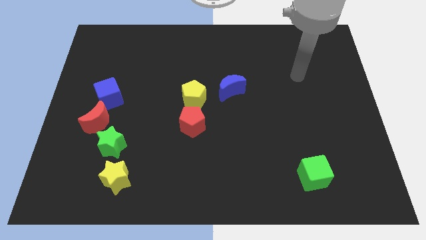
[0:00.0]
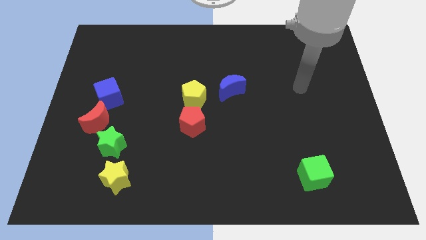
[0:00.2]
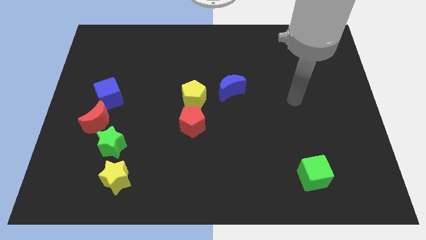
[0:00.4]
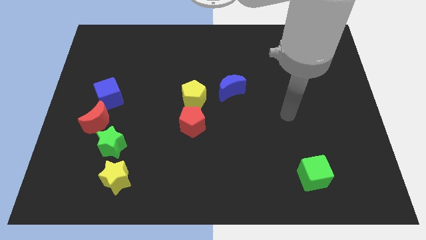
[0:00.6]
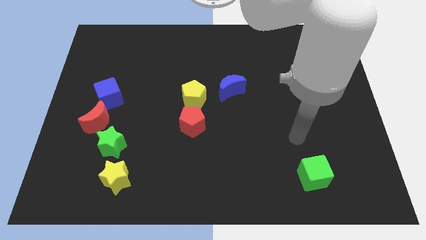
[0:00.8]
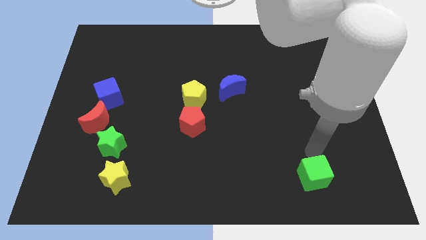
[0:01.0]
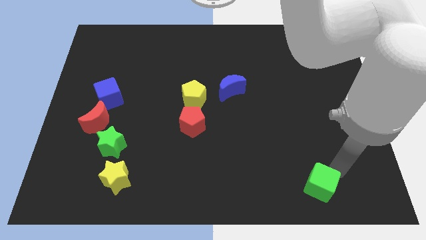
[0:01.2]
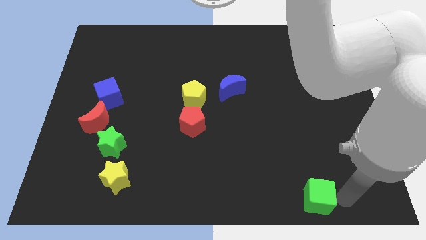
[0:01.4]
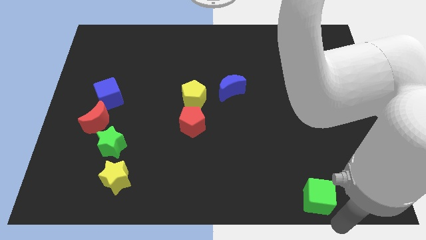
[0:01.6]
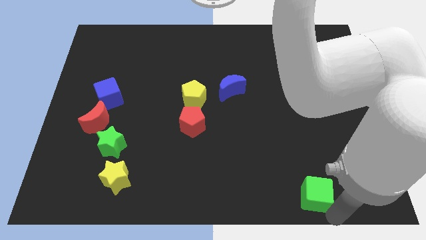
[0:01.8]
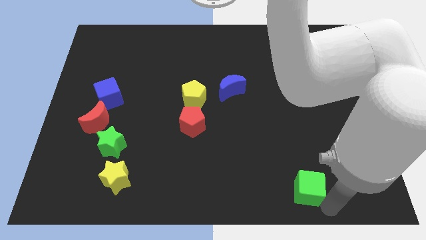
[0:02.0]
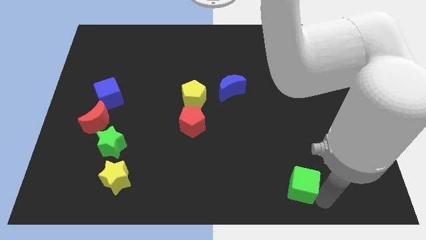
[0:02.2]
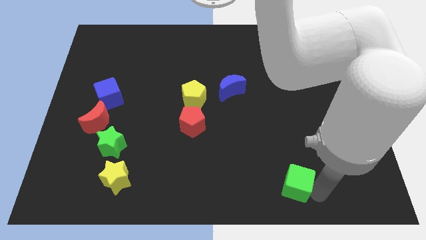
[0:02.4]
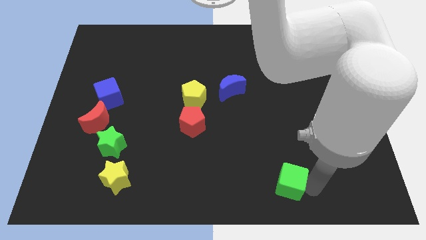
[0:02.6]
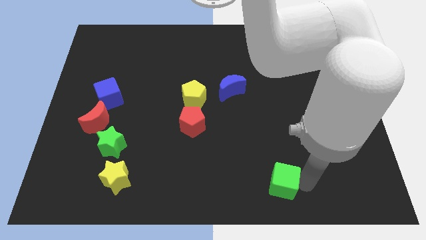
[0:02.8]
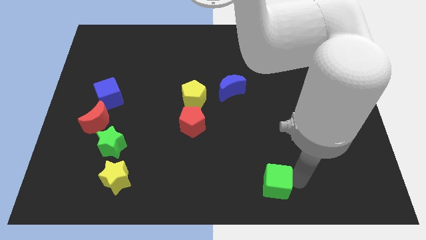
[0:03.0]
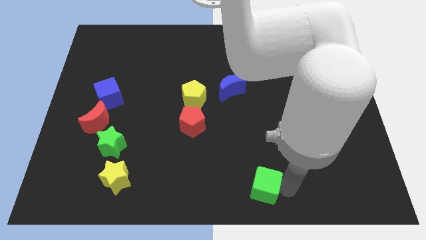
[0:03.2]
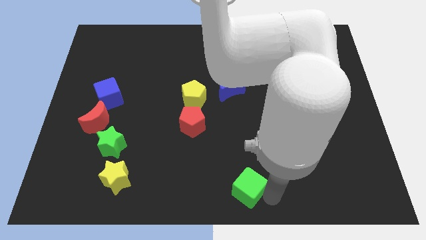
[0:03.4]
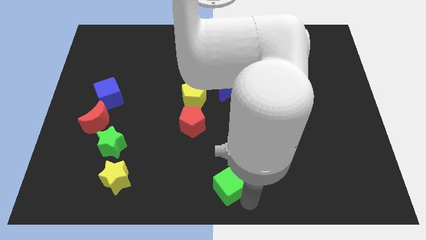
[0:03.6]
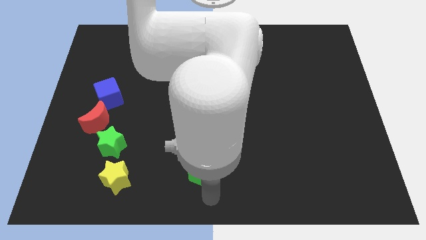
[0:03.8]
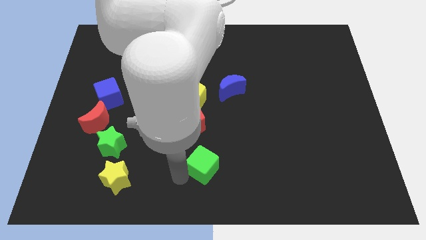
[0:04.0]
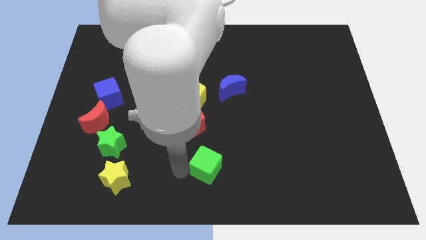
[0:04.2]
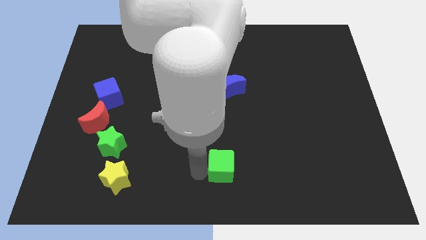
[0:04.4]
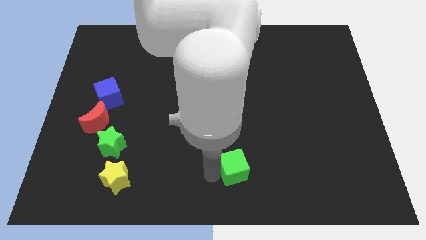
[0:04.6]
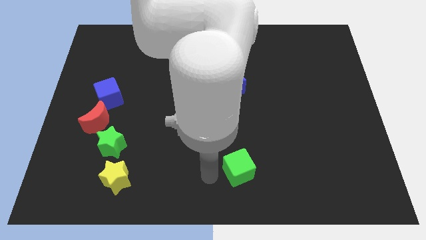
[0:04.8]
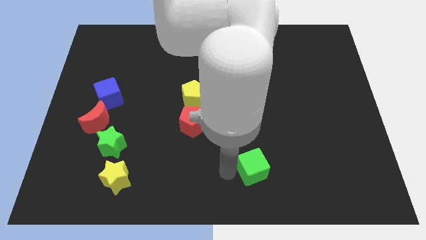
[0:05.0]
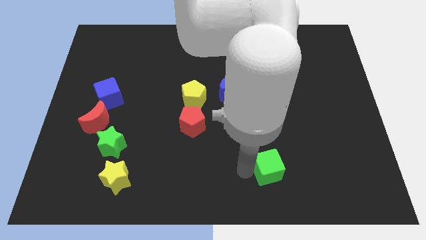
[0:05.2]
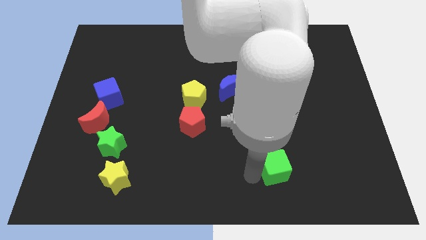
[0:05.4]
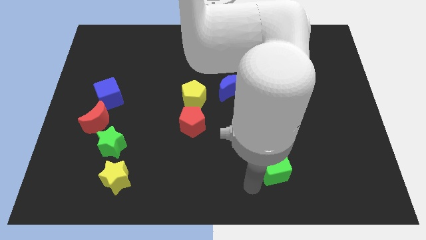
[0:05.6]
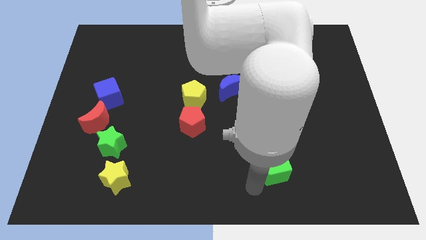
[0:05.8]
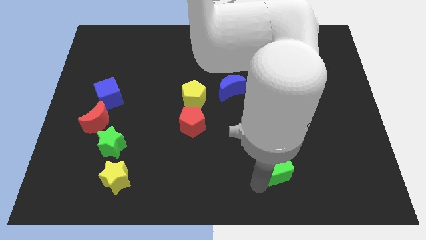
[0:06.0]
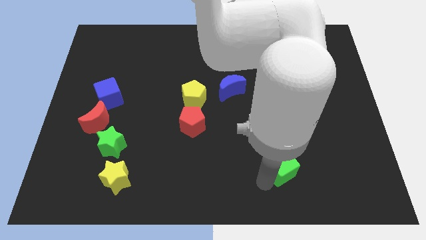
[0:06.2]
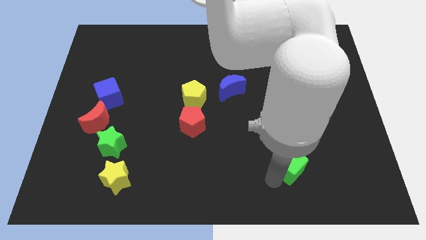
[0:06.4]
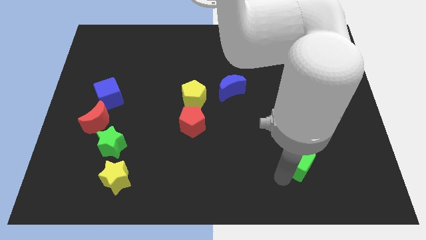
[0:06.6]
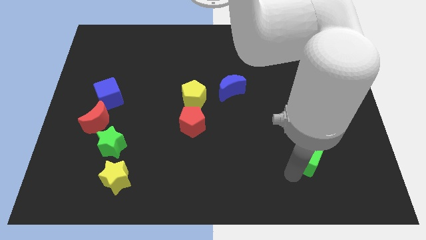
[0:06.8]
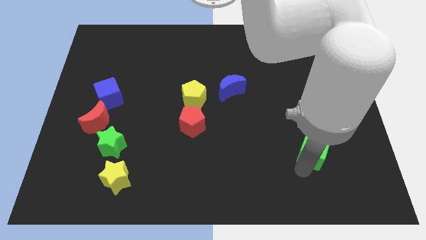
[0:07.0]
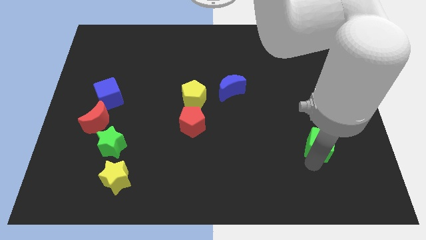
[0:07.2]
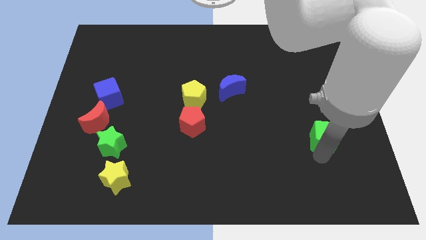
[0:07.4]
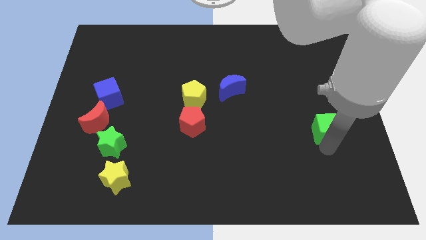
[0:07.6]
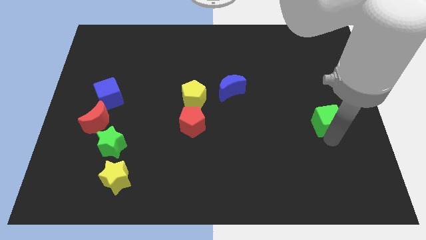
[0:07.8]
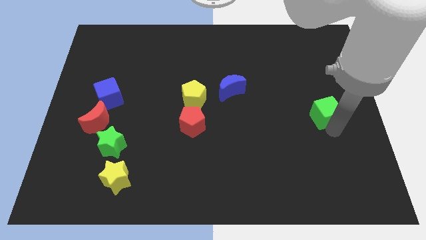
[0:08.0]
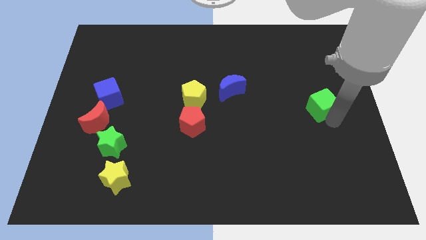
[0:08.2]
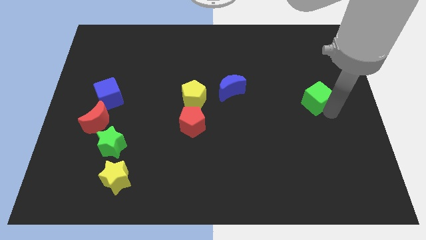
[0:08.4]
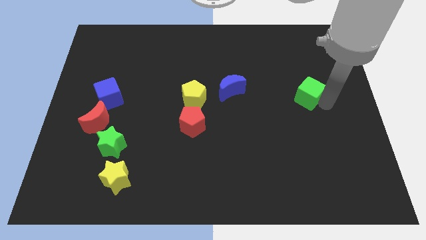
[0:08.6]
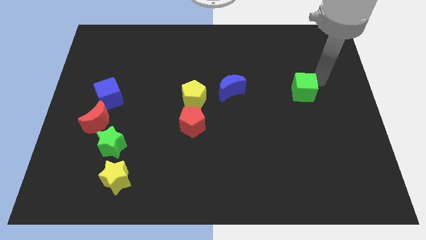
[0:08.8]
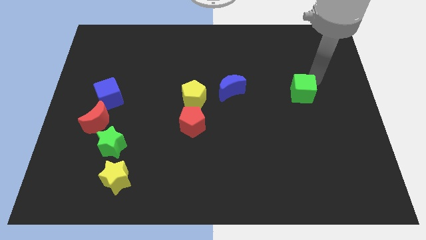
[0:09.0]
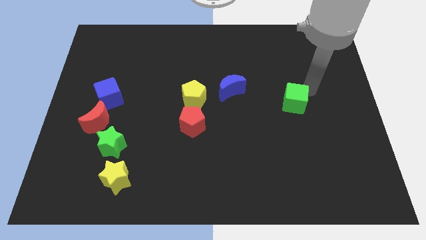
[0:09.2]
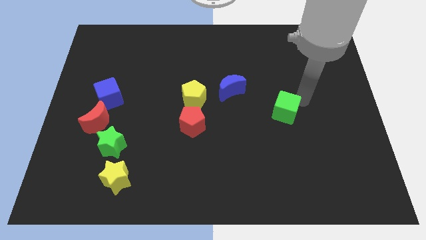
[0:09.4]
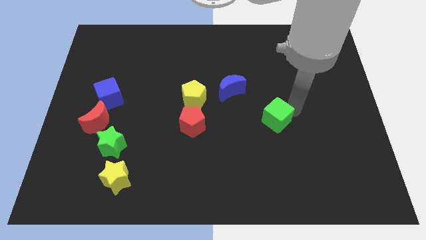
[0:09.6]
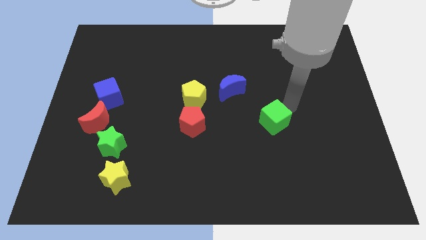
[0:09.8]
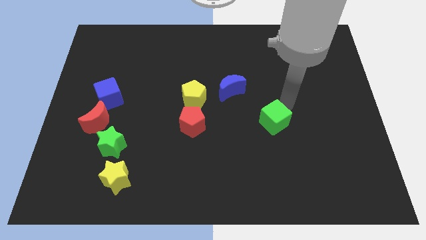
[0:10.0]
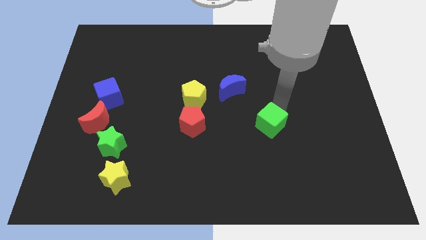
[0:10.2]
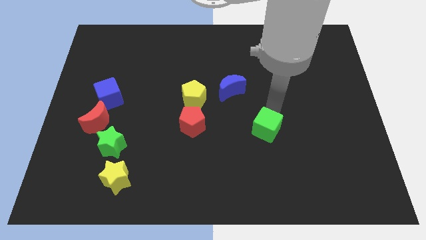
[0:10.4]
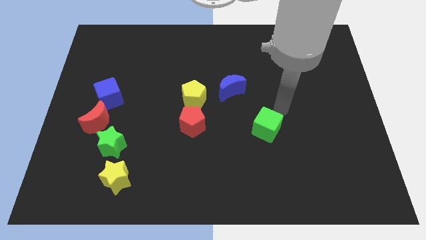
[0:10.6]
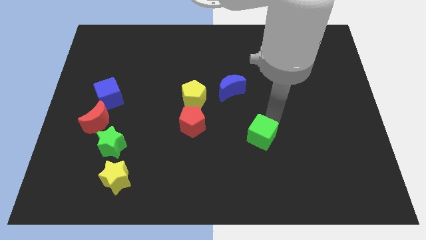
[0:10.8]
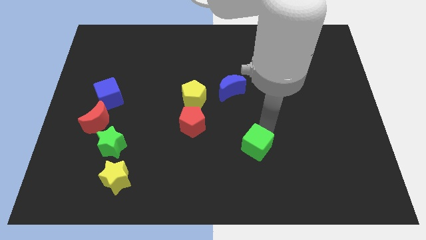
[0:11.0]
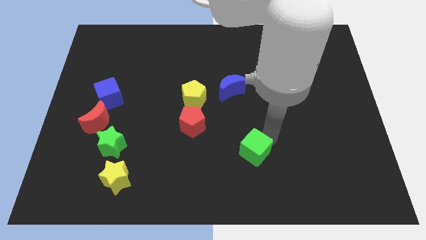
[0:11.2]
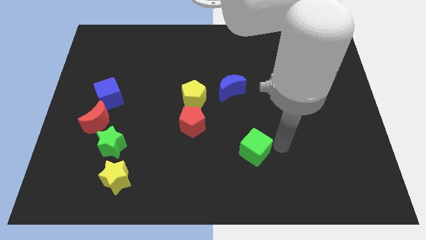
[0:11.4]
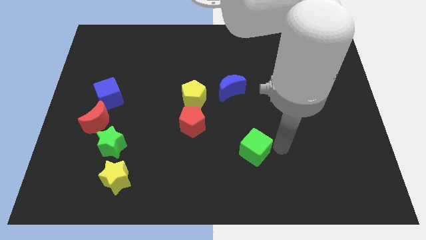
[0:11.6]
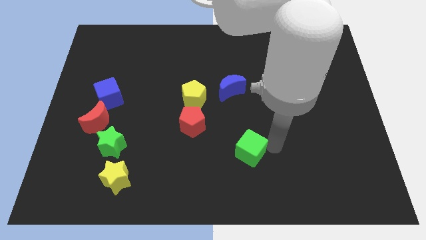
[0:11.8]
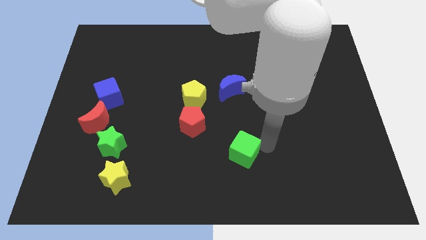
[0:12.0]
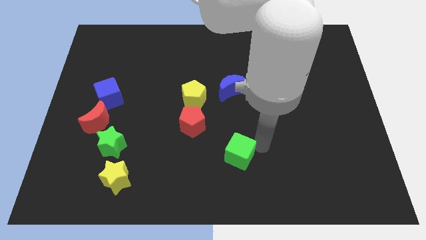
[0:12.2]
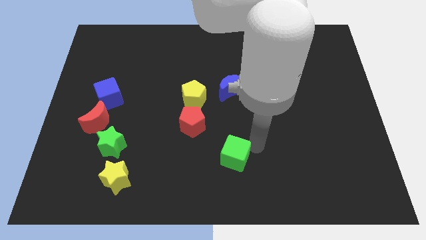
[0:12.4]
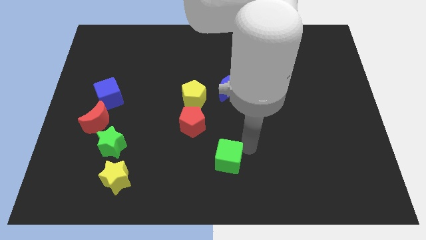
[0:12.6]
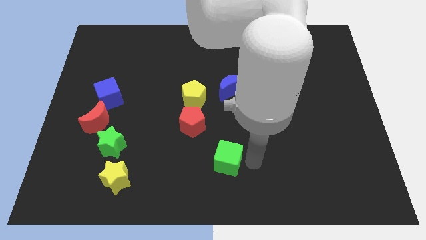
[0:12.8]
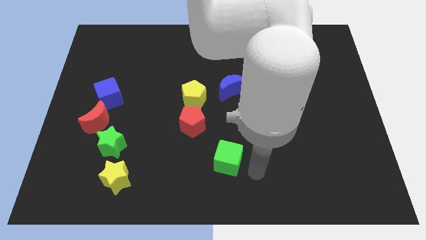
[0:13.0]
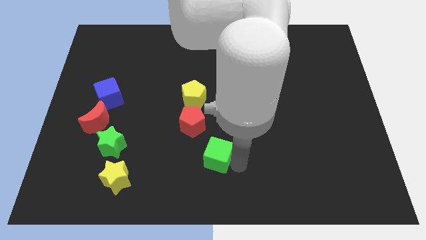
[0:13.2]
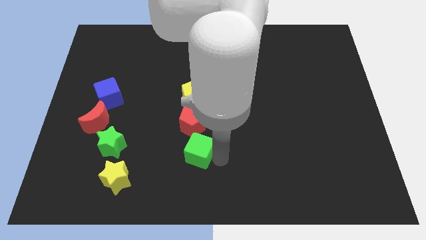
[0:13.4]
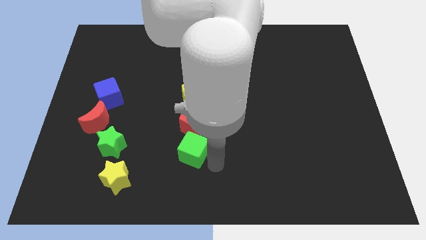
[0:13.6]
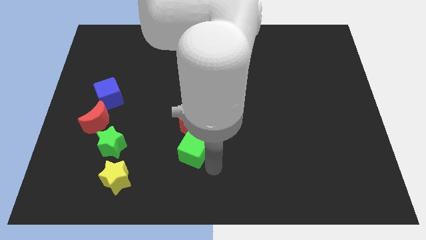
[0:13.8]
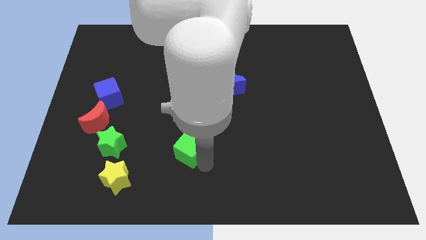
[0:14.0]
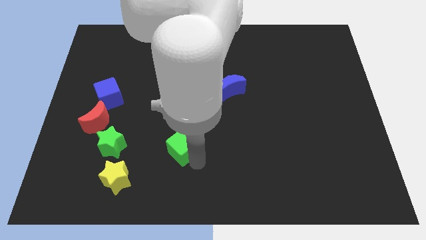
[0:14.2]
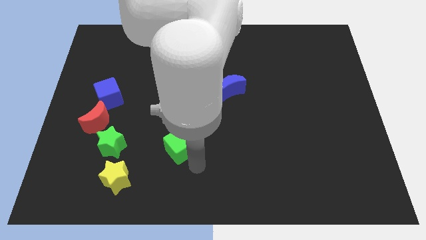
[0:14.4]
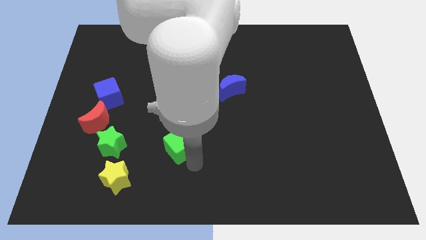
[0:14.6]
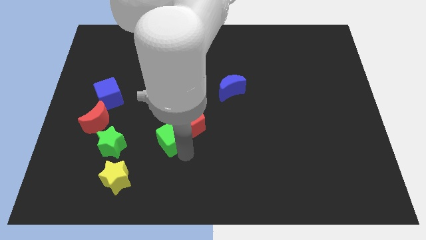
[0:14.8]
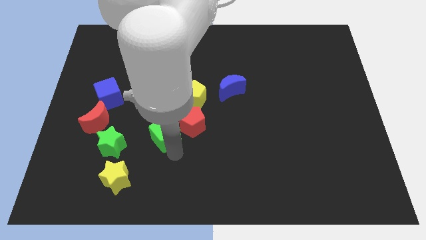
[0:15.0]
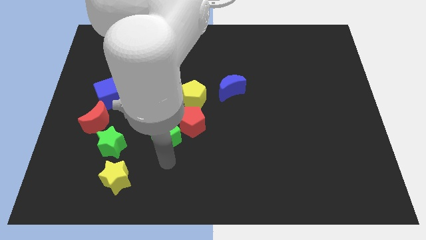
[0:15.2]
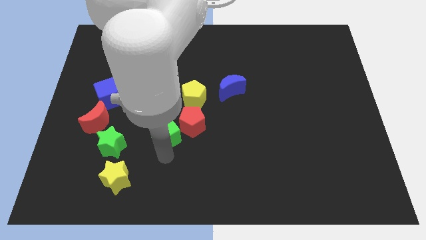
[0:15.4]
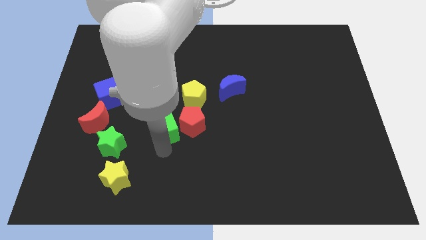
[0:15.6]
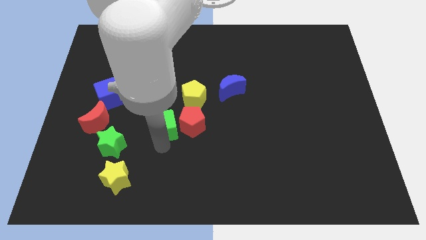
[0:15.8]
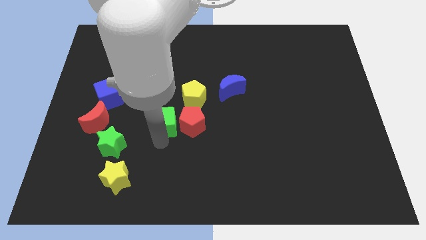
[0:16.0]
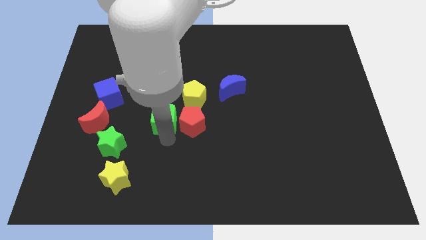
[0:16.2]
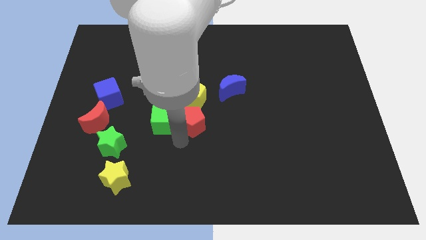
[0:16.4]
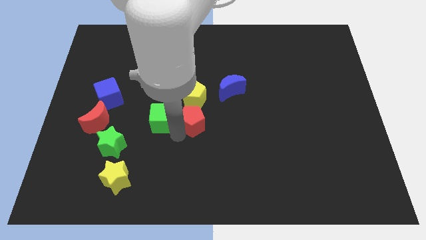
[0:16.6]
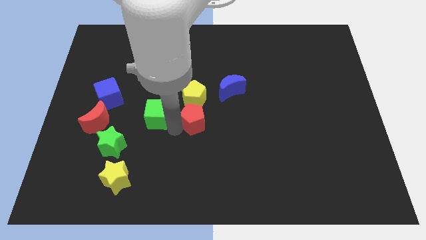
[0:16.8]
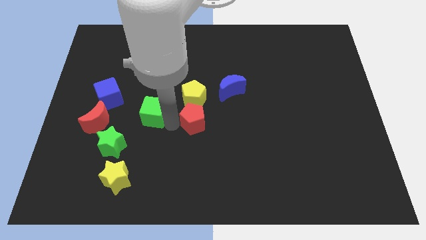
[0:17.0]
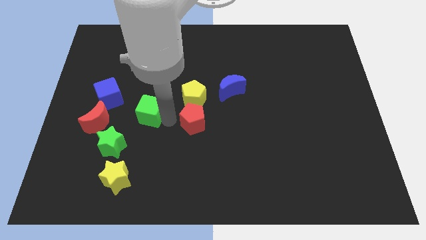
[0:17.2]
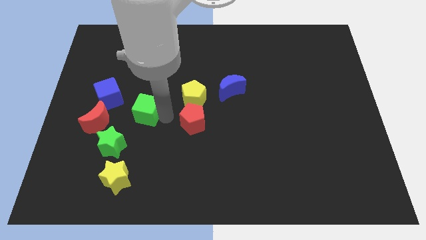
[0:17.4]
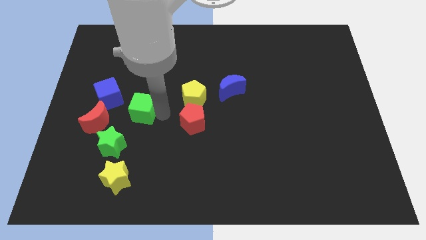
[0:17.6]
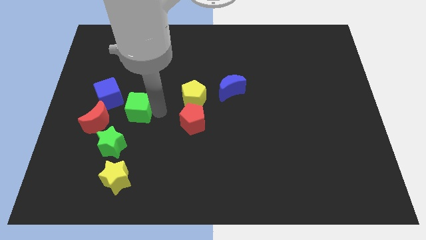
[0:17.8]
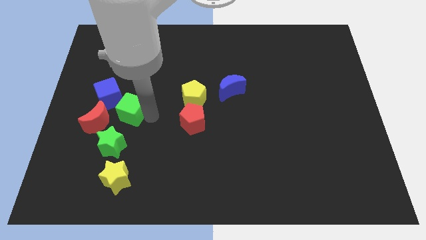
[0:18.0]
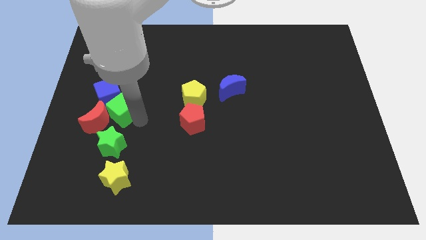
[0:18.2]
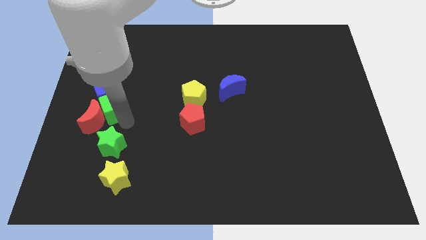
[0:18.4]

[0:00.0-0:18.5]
move the green cube to the top of the red moon
